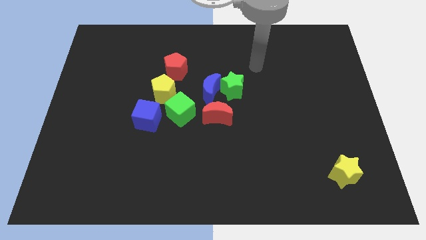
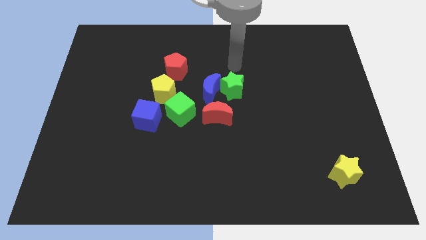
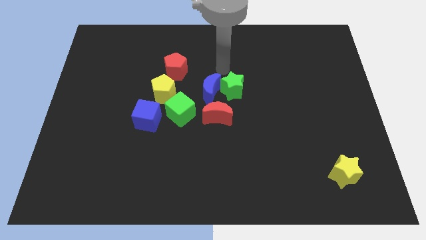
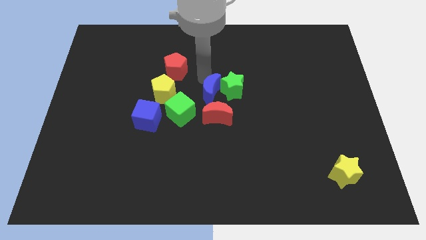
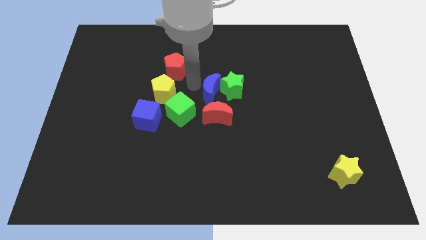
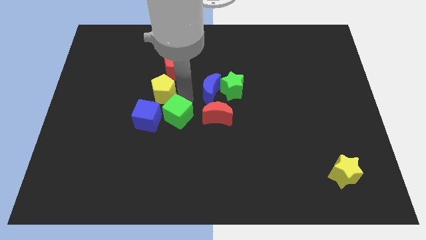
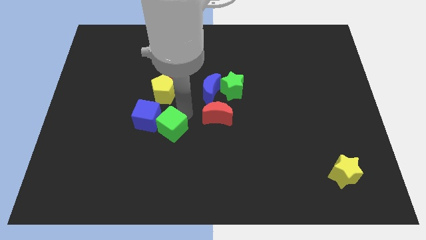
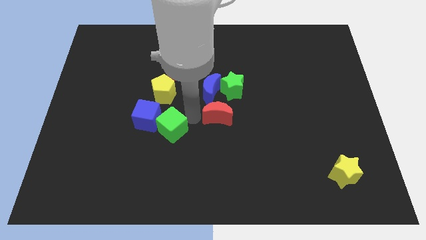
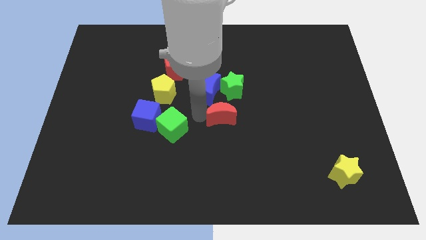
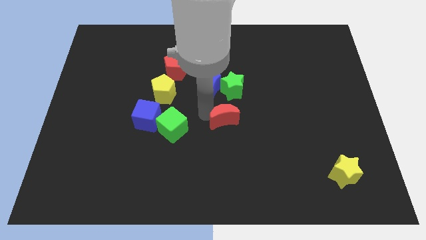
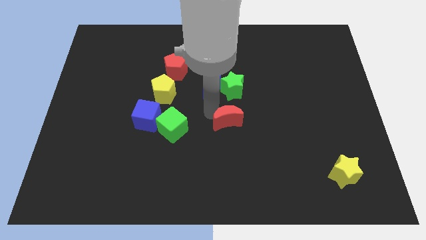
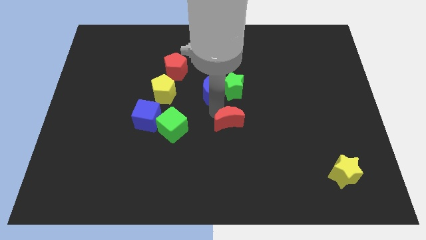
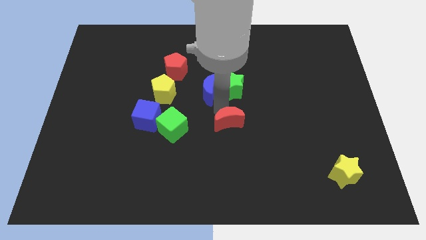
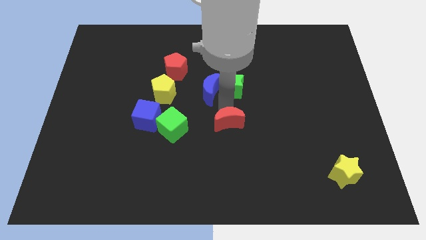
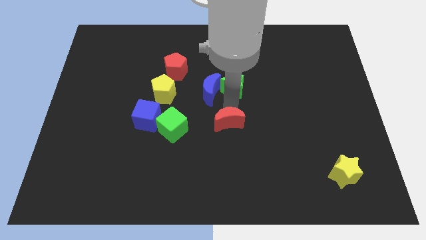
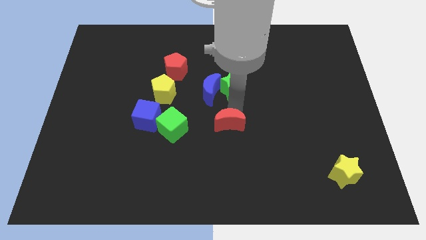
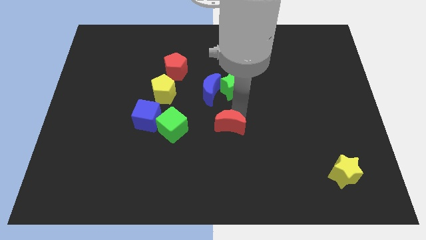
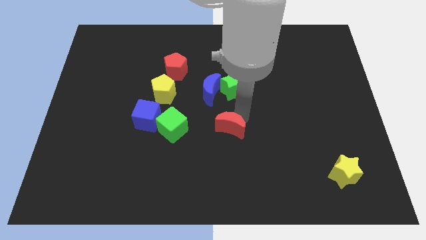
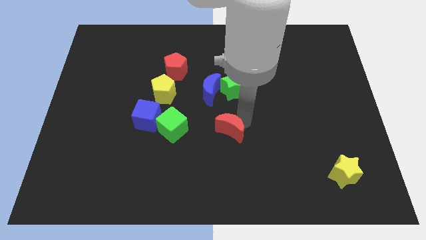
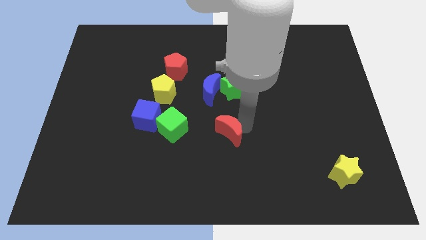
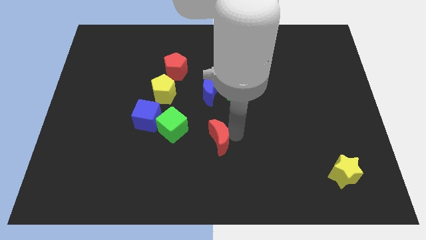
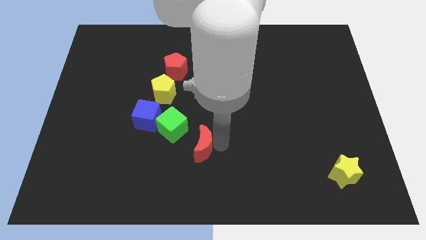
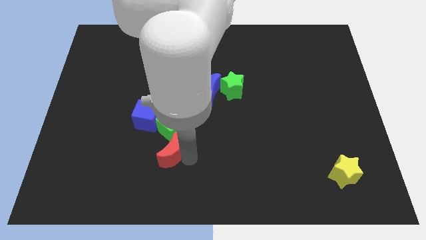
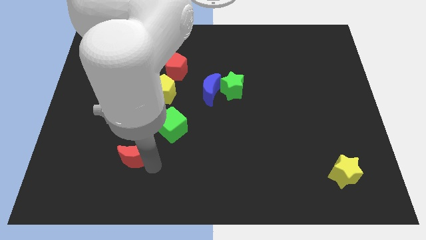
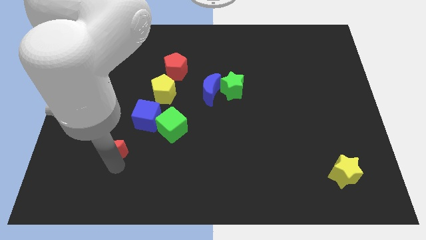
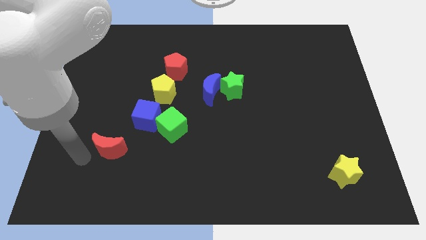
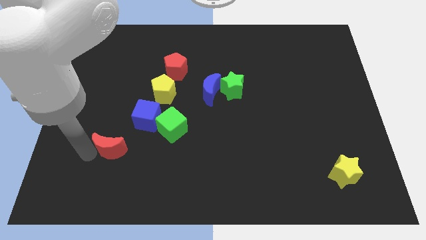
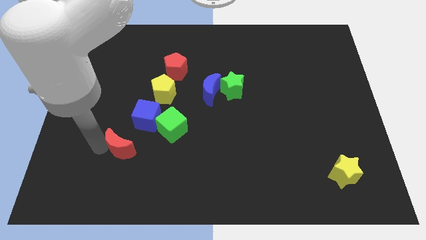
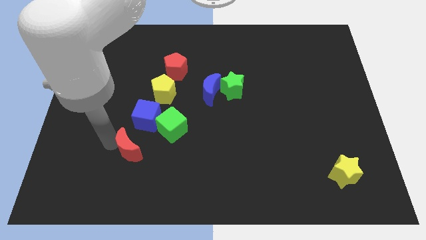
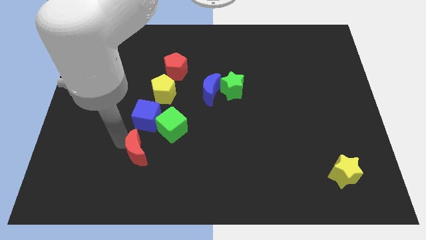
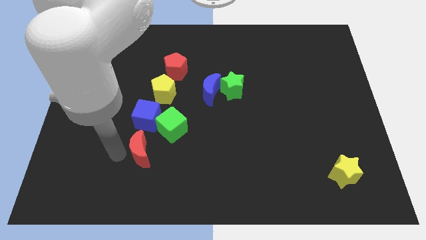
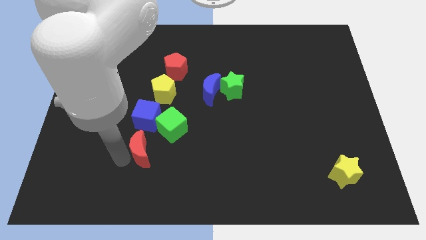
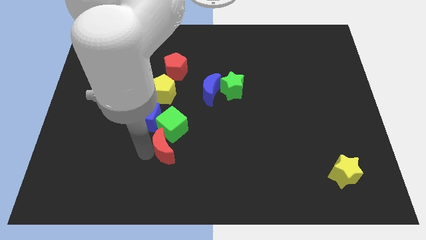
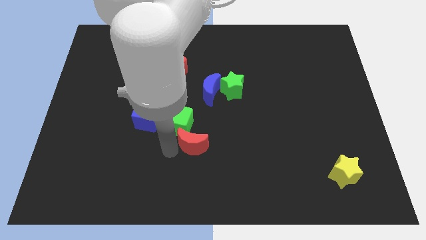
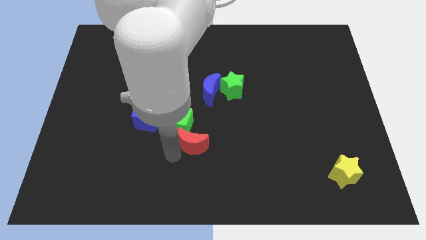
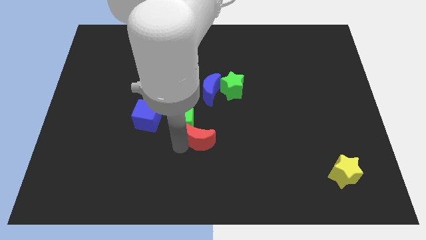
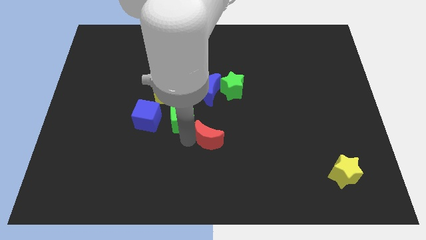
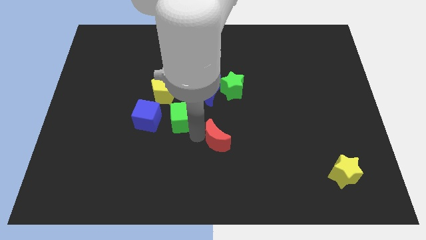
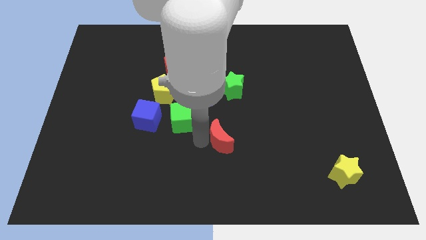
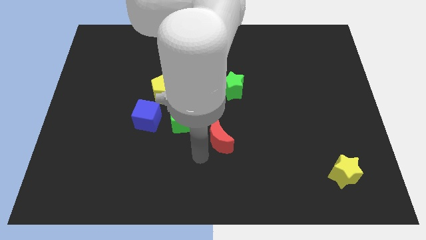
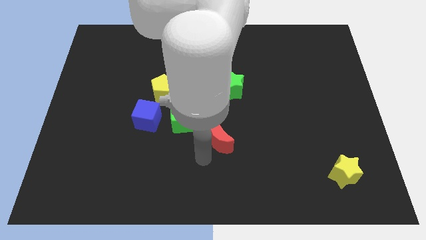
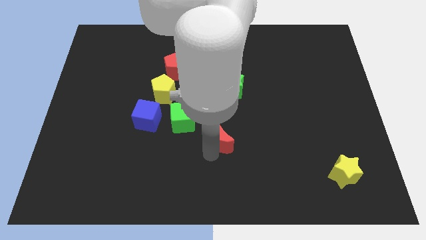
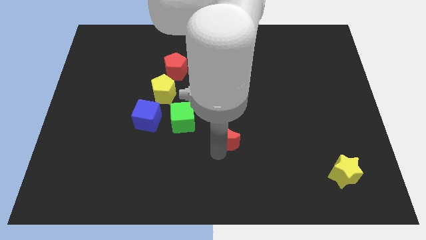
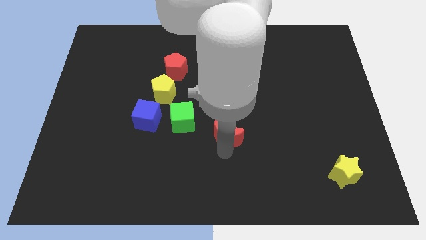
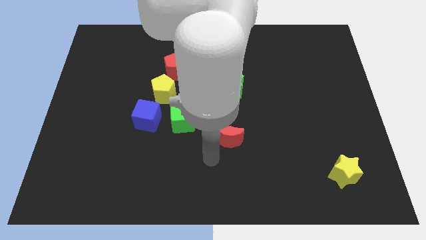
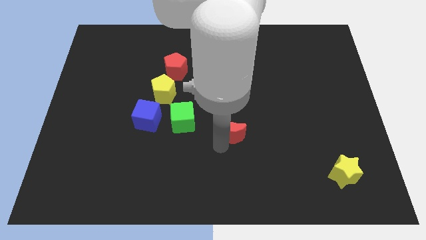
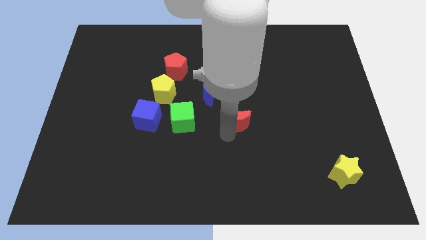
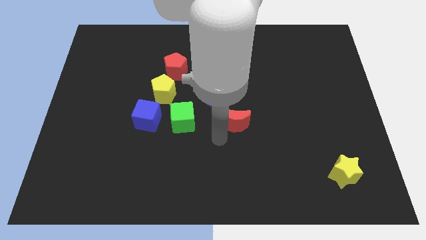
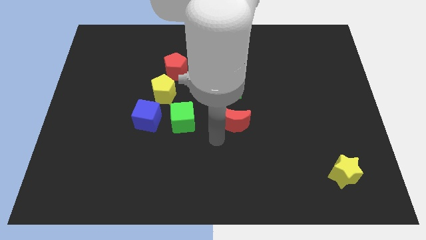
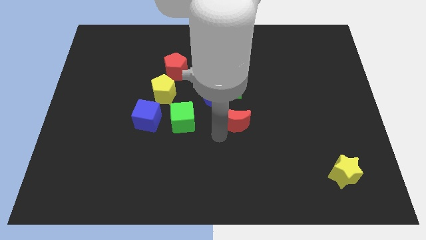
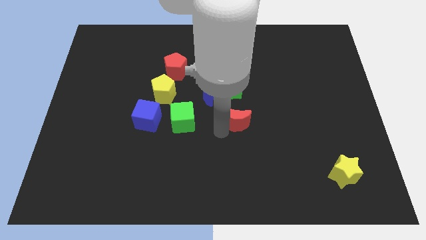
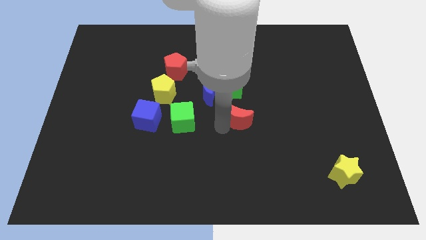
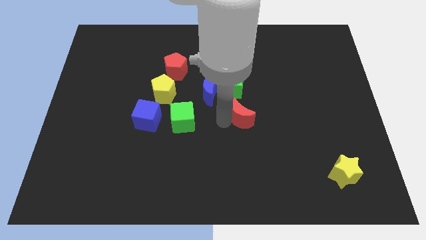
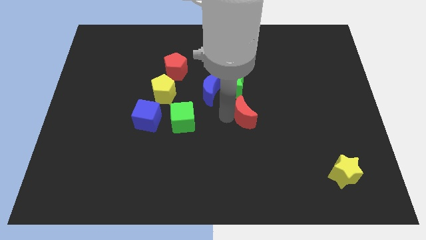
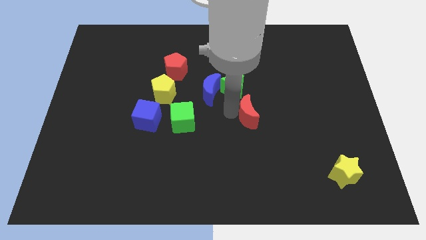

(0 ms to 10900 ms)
move the red moon somewhat right

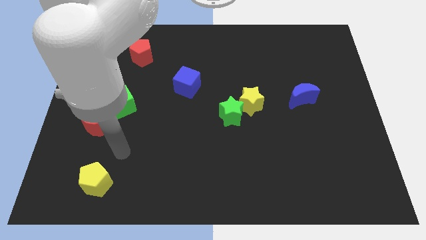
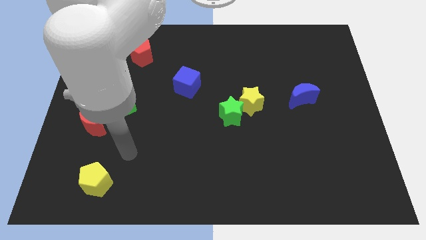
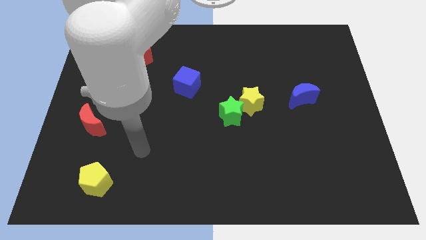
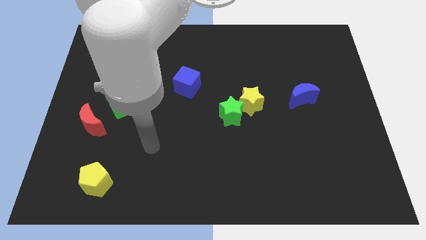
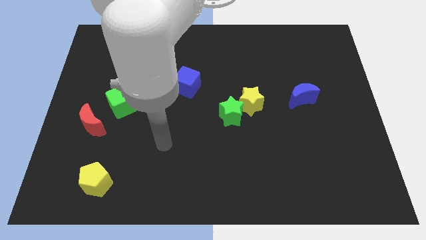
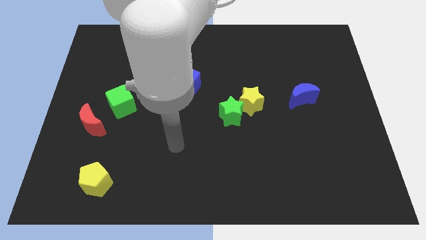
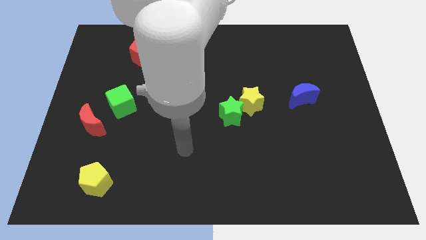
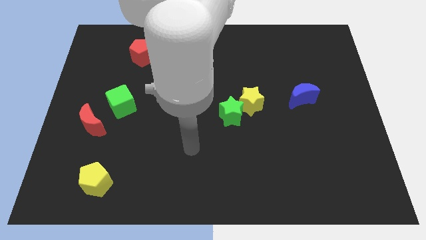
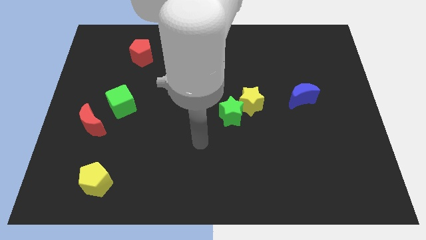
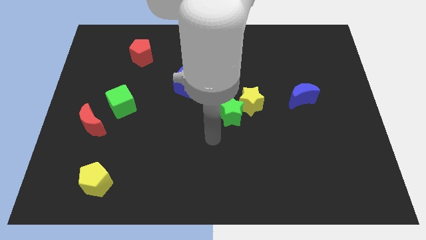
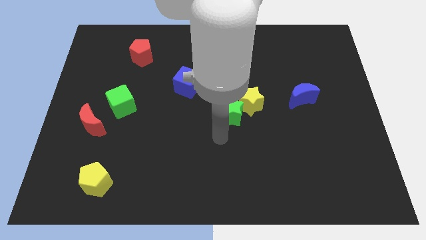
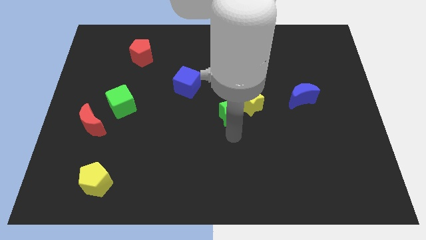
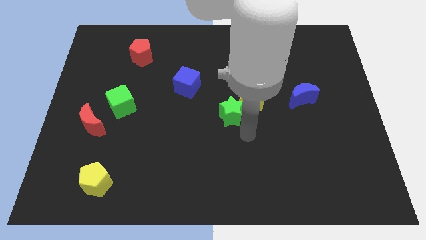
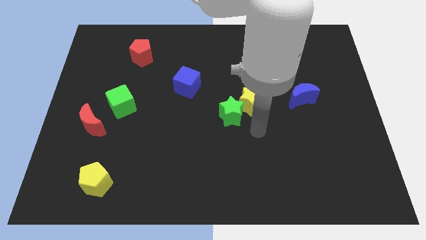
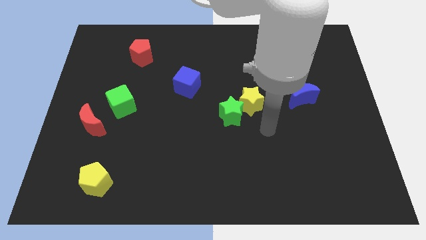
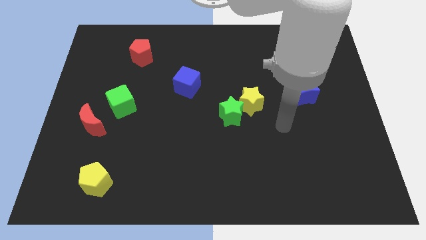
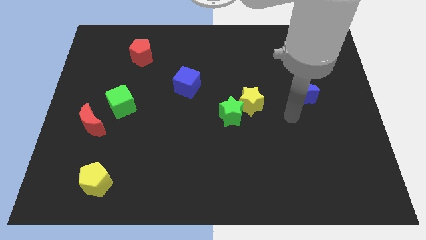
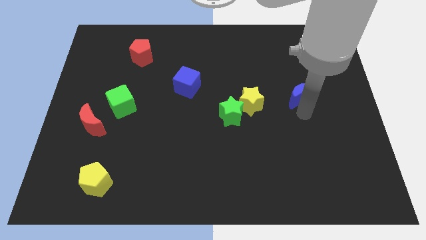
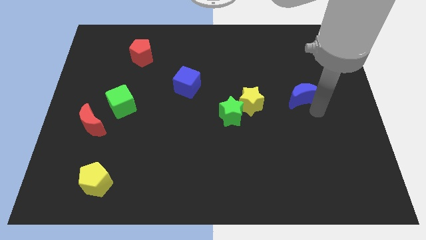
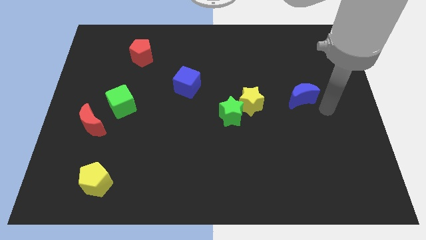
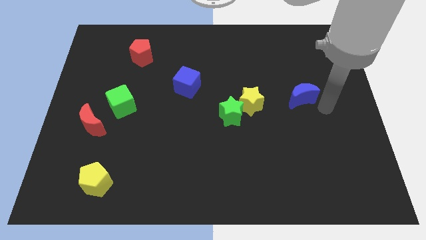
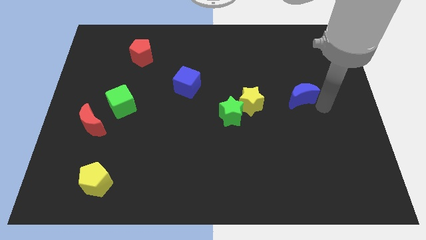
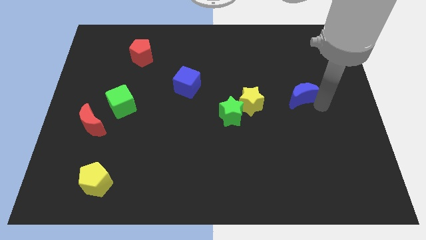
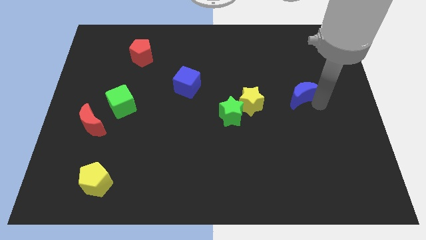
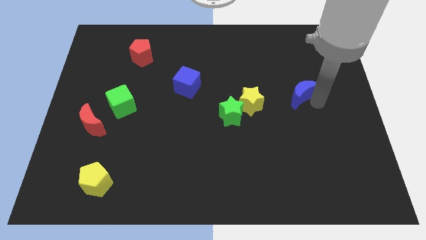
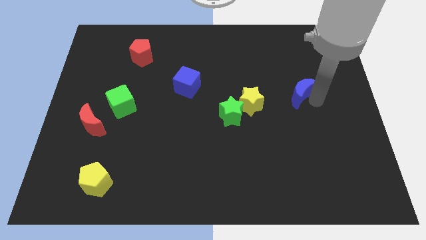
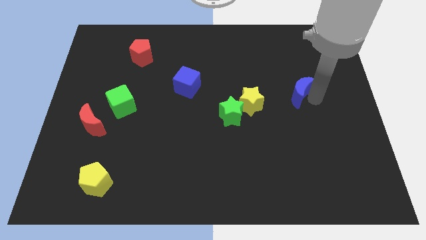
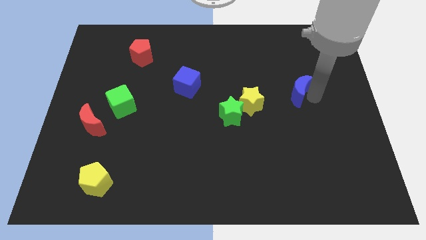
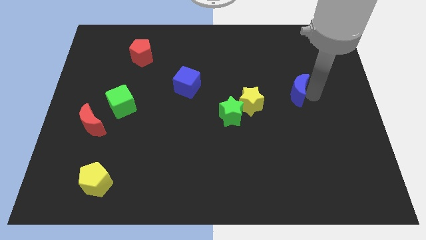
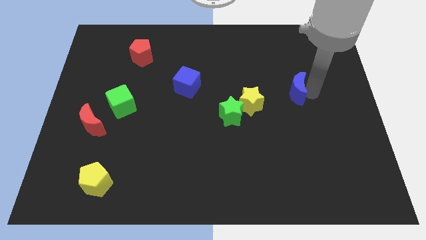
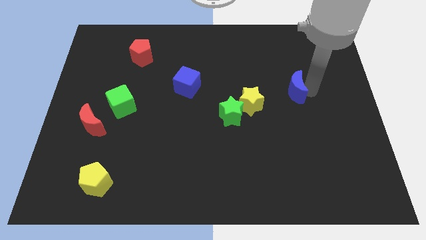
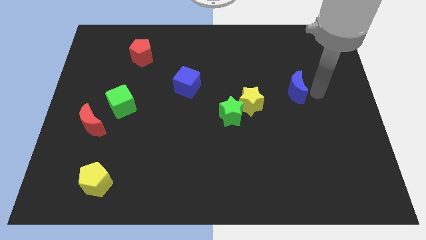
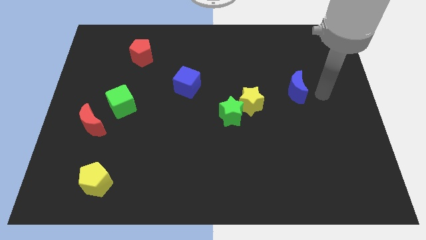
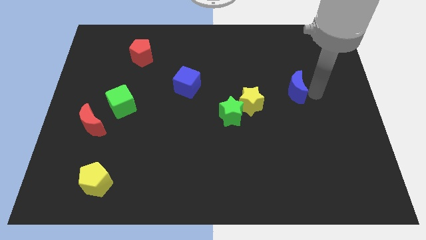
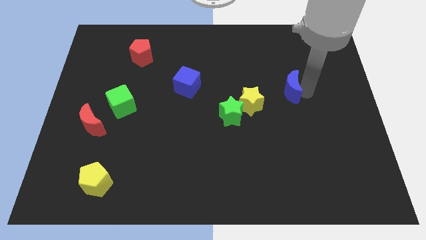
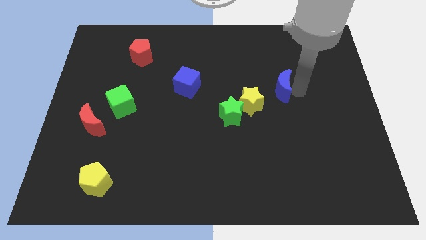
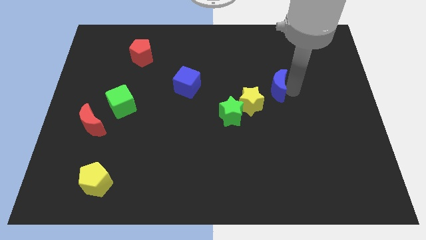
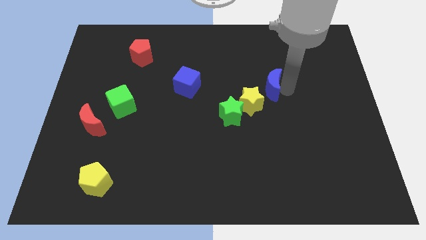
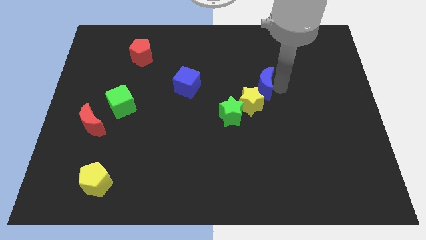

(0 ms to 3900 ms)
move the blue moon somewhat to the left
